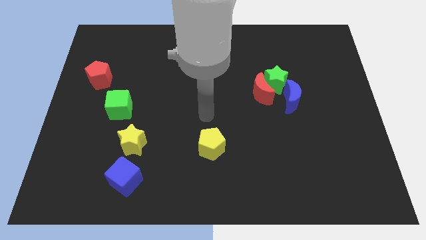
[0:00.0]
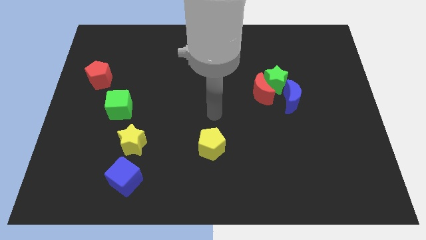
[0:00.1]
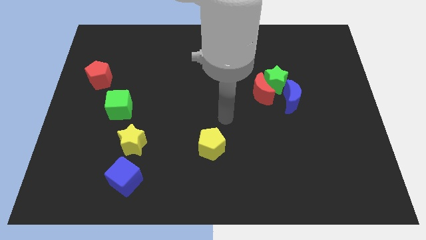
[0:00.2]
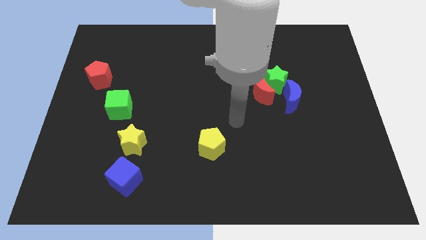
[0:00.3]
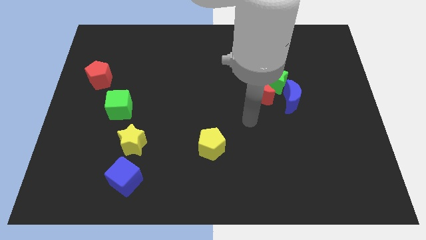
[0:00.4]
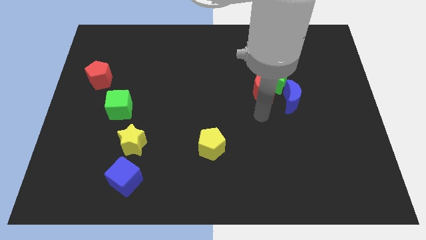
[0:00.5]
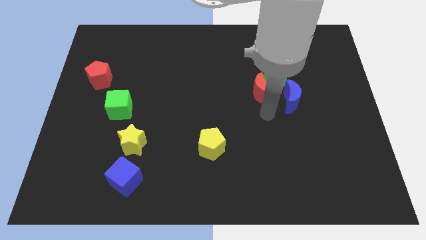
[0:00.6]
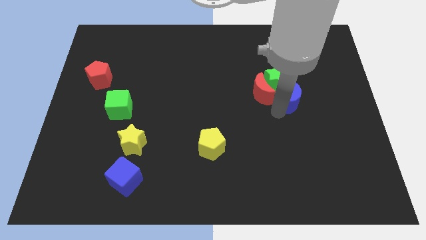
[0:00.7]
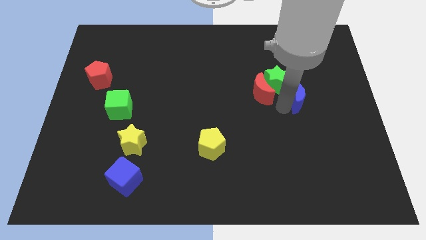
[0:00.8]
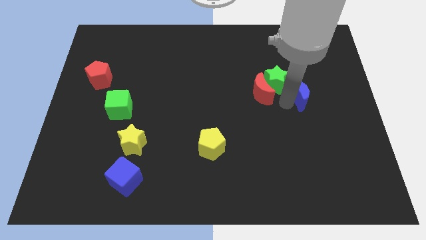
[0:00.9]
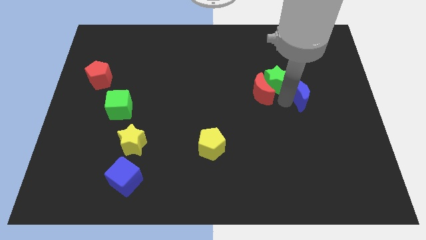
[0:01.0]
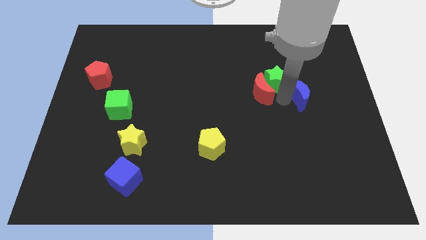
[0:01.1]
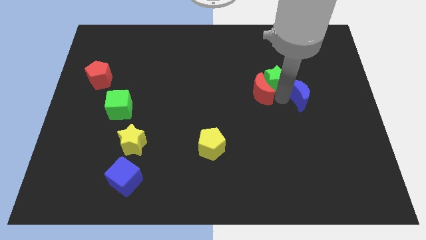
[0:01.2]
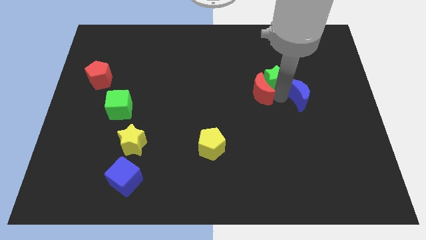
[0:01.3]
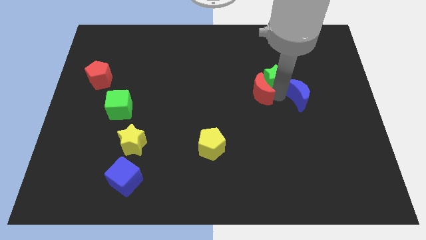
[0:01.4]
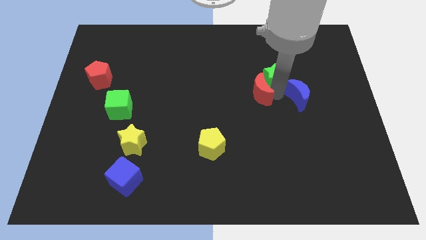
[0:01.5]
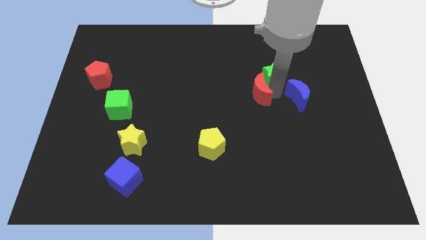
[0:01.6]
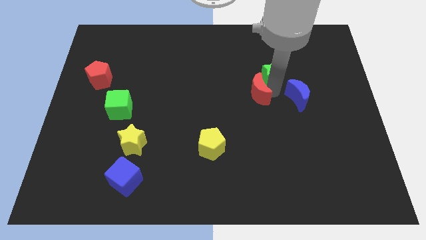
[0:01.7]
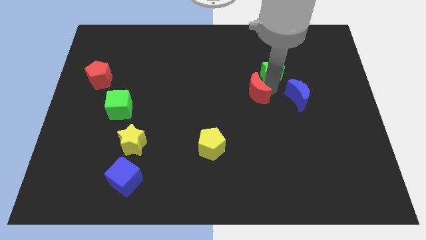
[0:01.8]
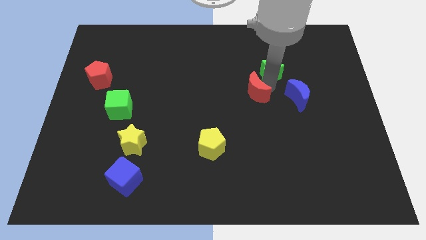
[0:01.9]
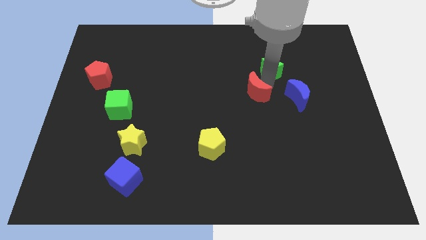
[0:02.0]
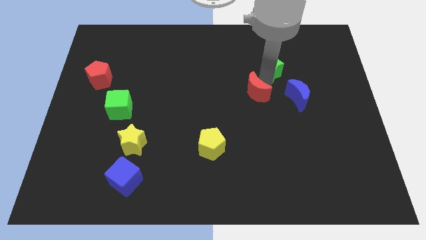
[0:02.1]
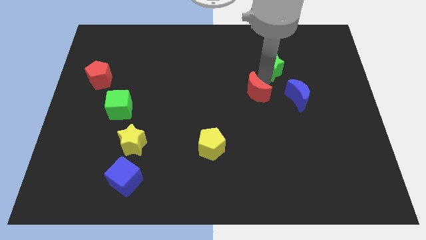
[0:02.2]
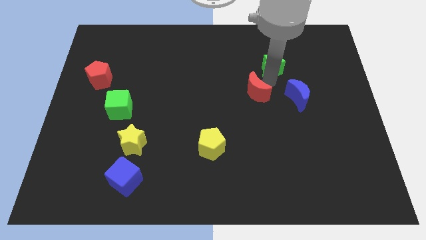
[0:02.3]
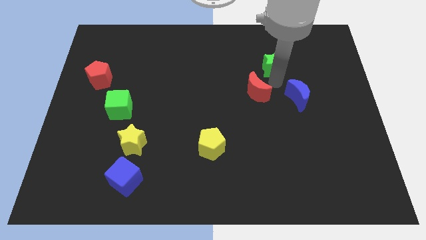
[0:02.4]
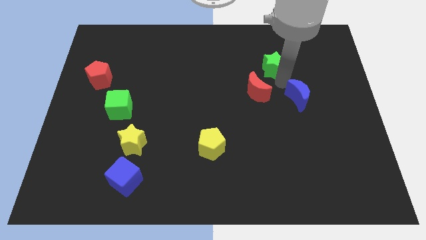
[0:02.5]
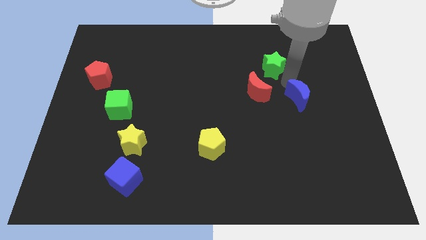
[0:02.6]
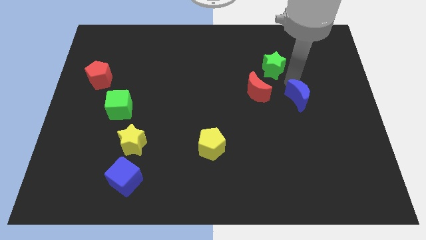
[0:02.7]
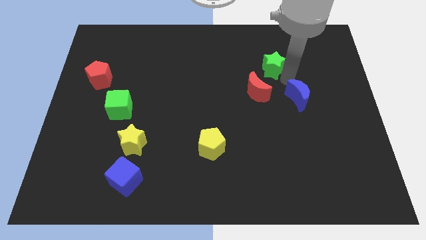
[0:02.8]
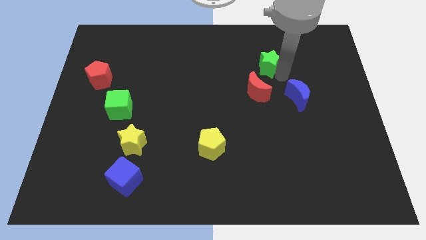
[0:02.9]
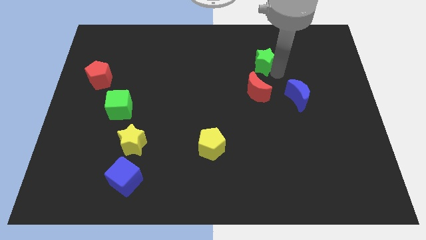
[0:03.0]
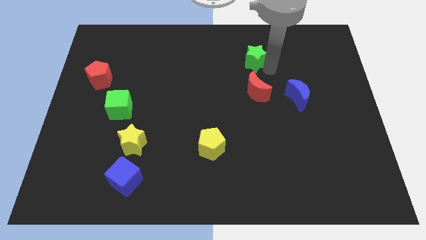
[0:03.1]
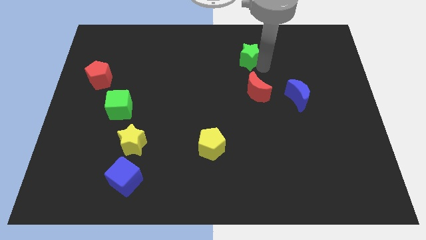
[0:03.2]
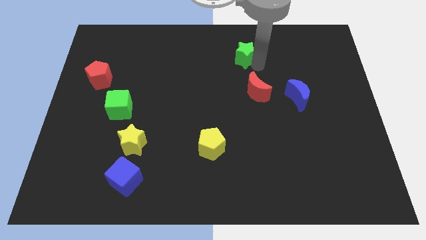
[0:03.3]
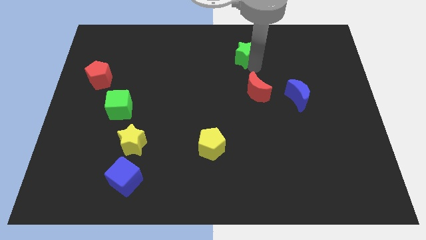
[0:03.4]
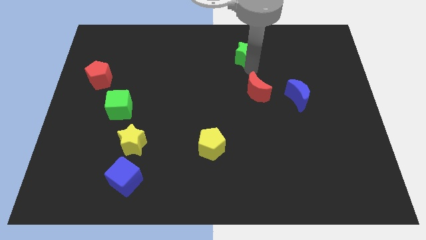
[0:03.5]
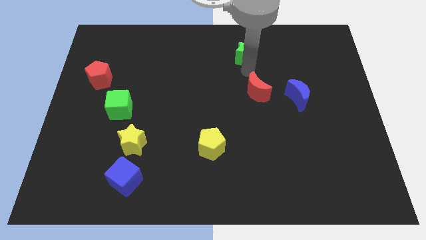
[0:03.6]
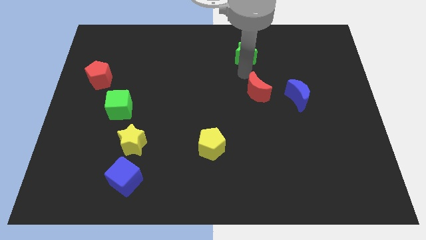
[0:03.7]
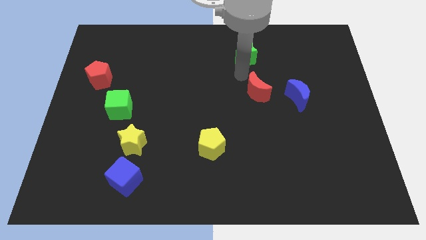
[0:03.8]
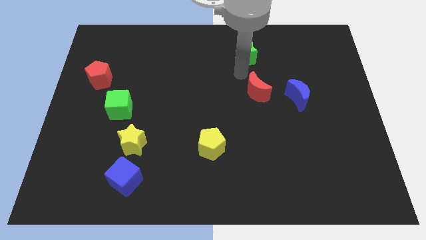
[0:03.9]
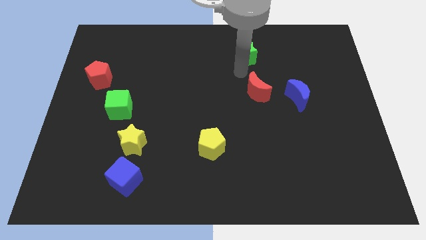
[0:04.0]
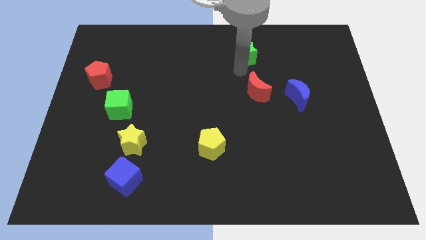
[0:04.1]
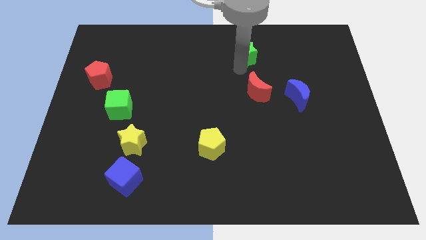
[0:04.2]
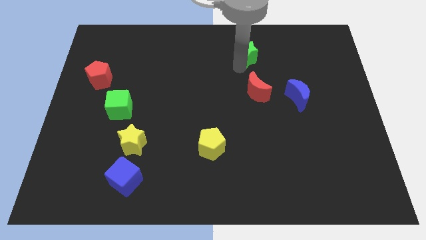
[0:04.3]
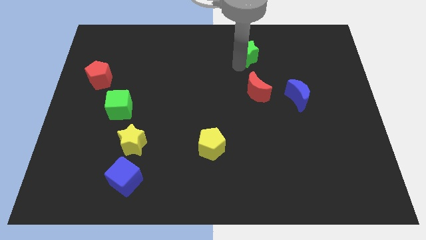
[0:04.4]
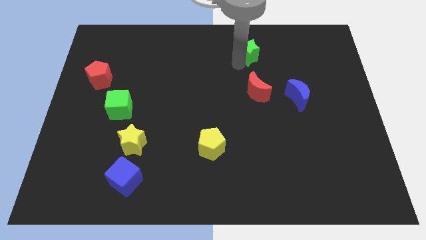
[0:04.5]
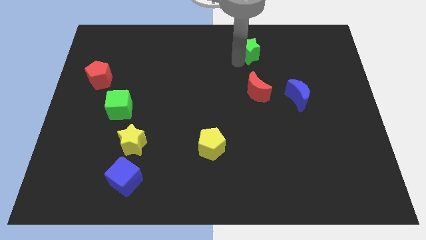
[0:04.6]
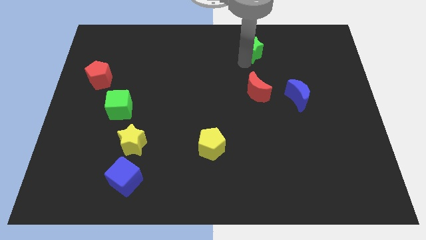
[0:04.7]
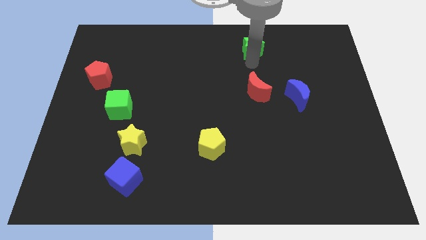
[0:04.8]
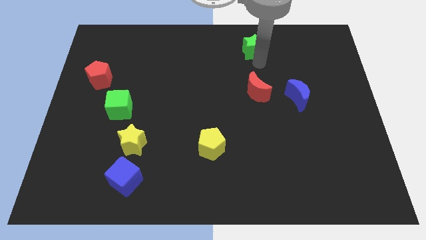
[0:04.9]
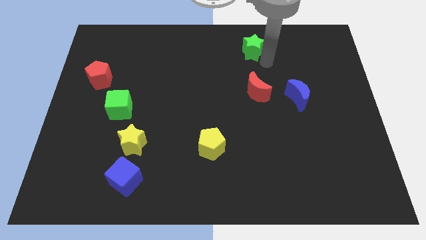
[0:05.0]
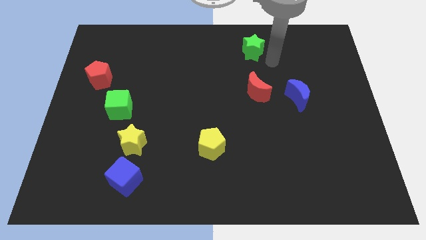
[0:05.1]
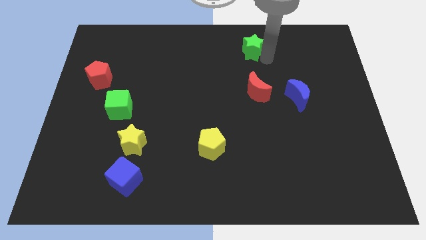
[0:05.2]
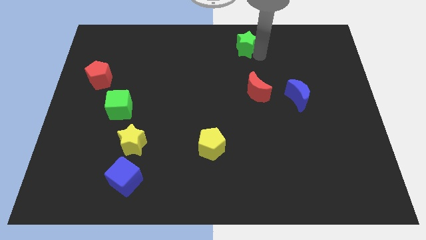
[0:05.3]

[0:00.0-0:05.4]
put the green star to the towards your base

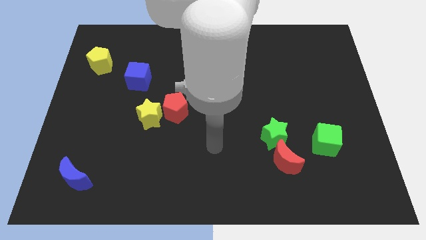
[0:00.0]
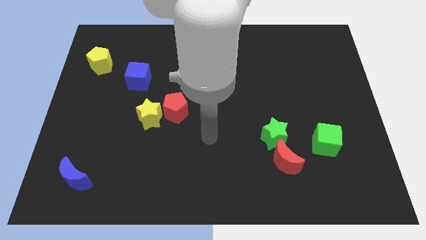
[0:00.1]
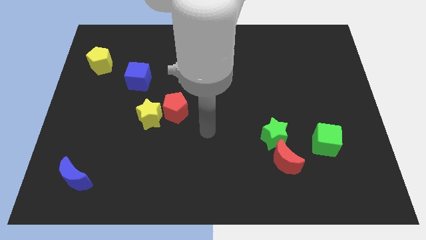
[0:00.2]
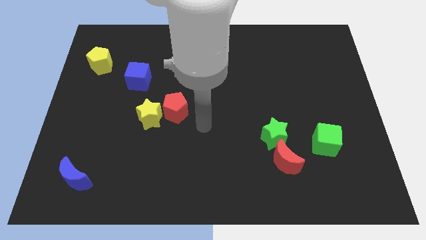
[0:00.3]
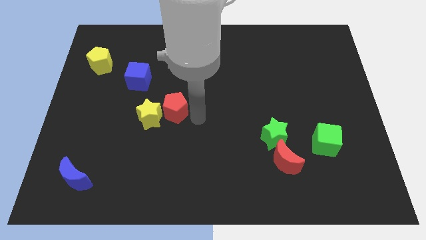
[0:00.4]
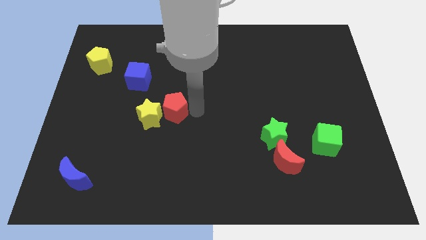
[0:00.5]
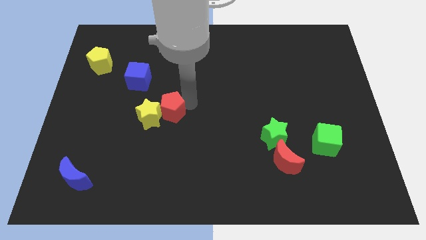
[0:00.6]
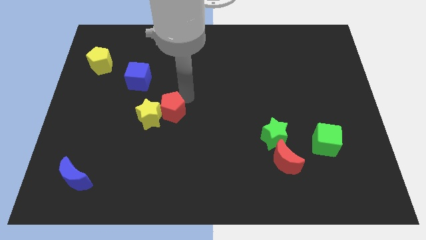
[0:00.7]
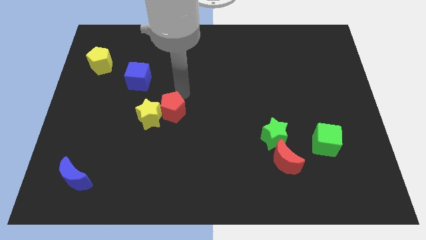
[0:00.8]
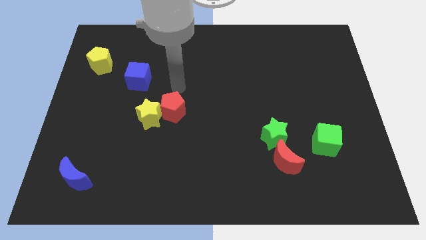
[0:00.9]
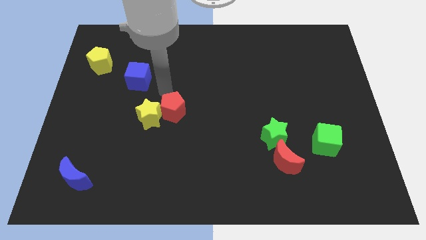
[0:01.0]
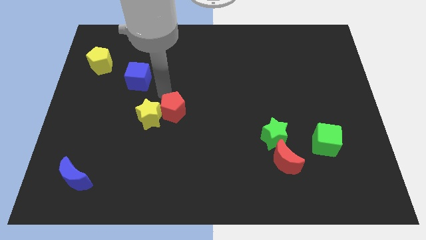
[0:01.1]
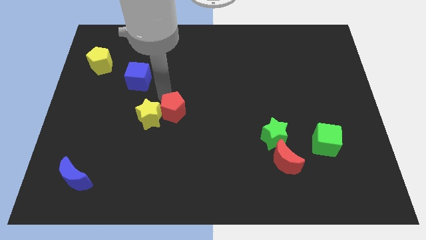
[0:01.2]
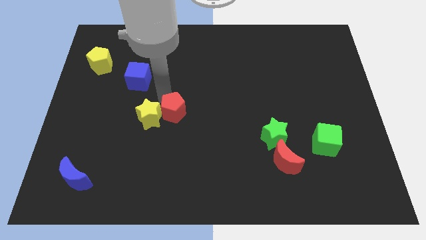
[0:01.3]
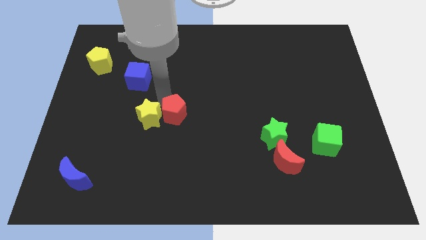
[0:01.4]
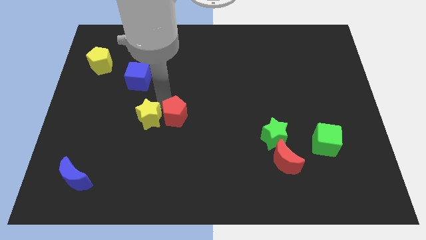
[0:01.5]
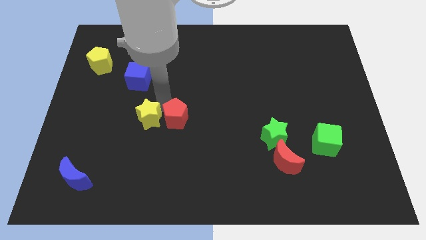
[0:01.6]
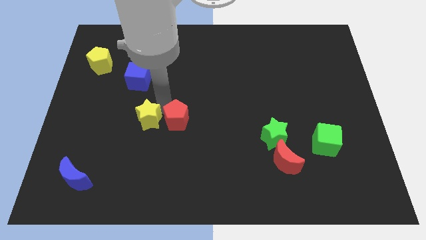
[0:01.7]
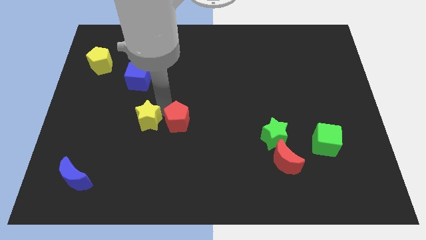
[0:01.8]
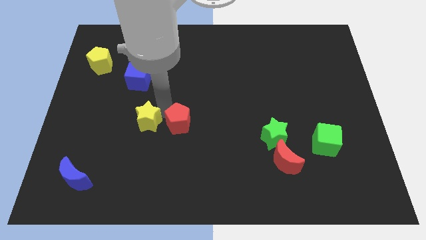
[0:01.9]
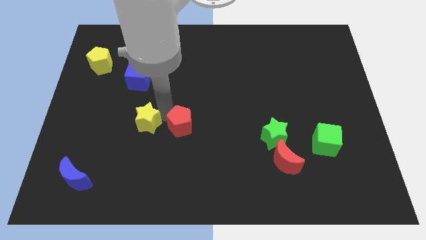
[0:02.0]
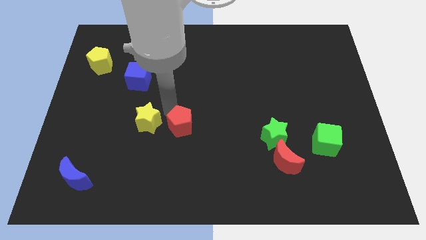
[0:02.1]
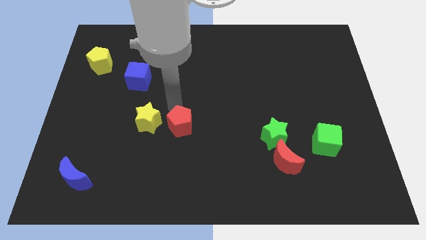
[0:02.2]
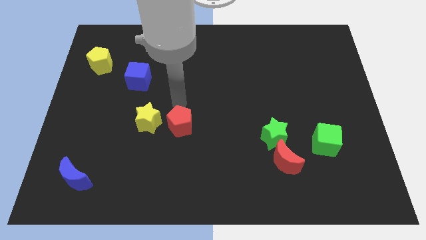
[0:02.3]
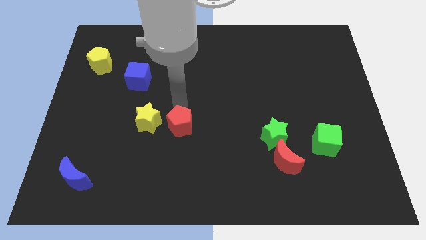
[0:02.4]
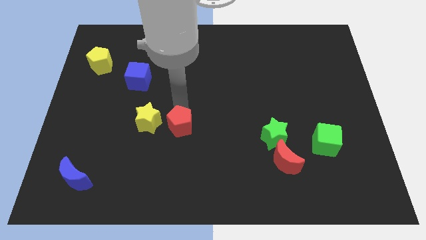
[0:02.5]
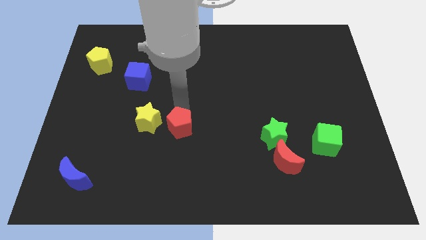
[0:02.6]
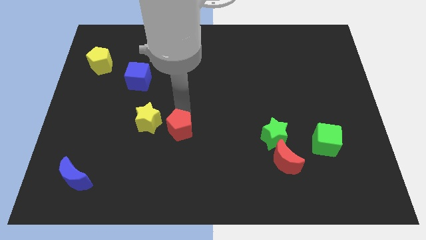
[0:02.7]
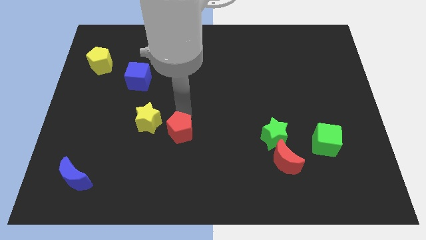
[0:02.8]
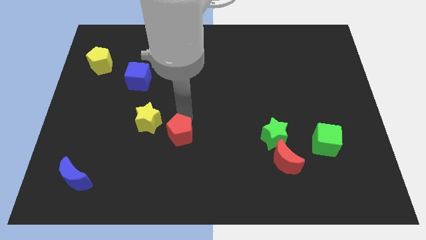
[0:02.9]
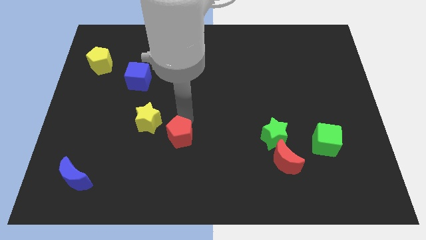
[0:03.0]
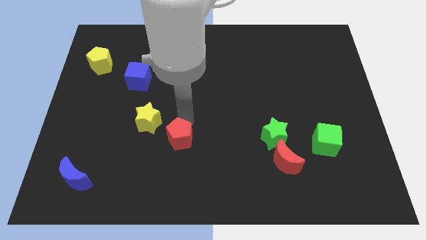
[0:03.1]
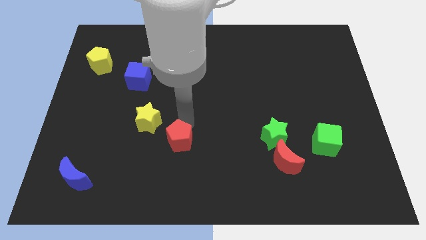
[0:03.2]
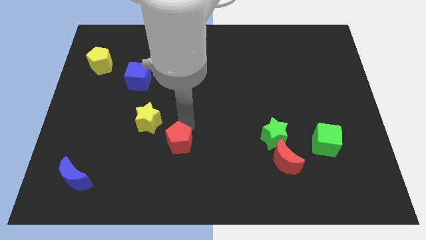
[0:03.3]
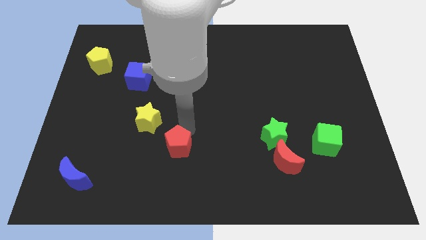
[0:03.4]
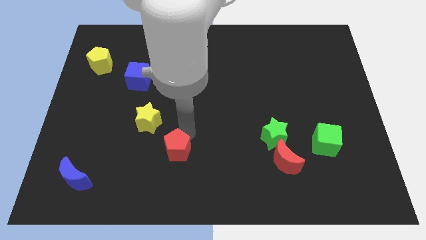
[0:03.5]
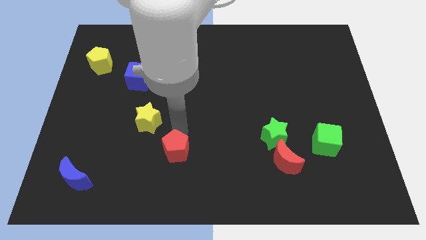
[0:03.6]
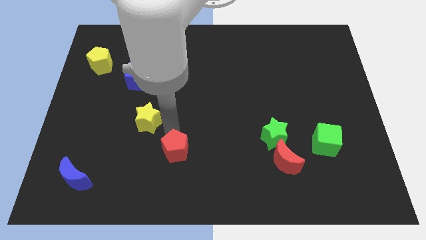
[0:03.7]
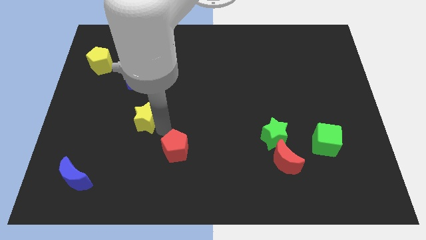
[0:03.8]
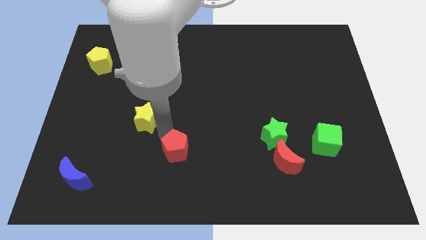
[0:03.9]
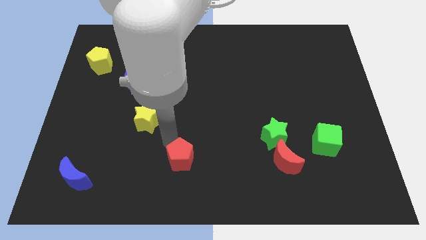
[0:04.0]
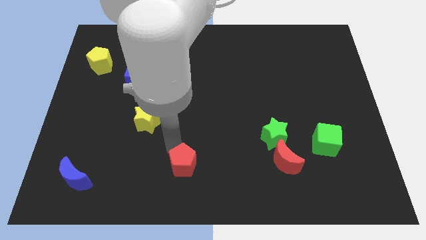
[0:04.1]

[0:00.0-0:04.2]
put the red pentagon to the bottom side
